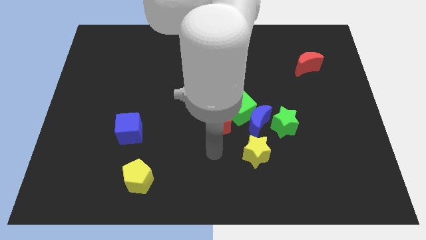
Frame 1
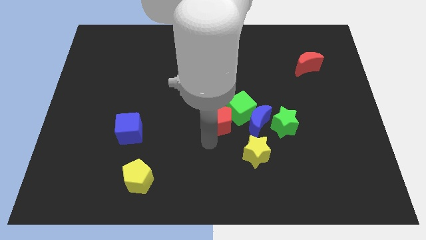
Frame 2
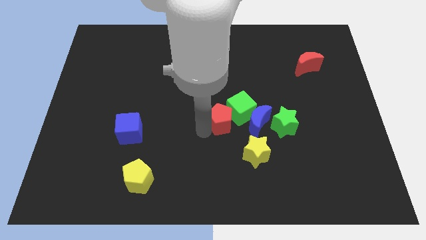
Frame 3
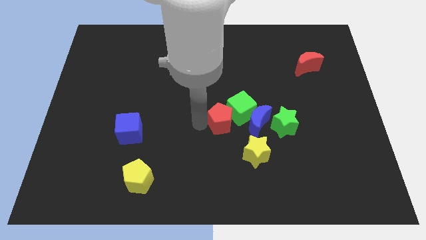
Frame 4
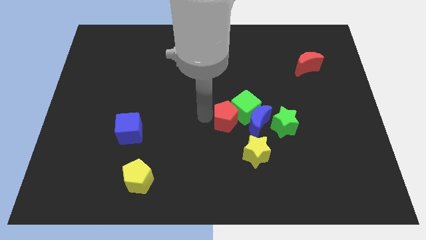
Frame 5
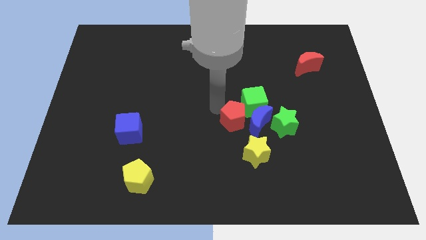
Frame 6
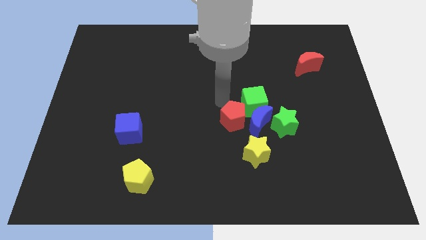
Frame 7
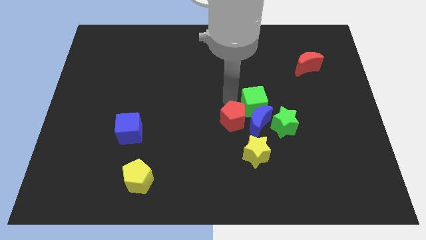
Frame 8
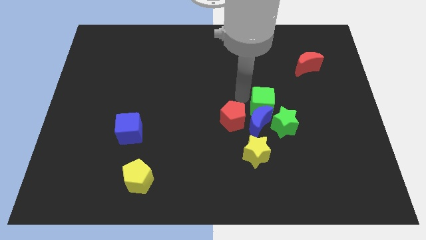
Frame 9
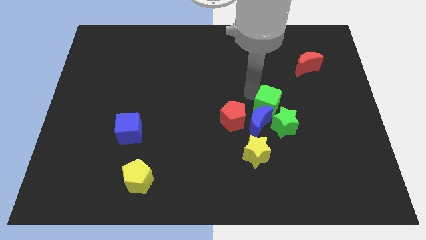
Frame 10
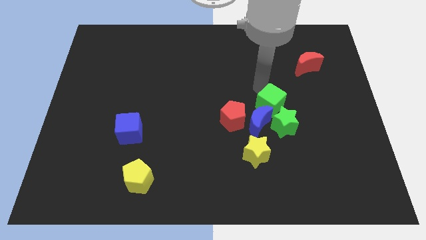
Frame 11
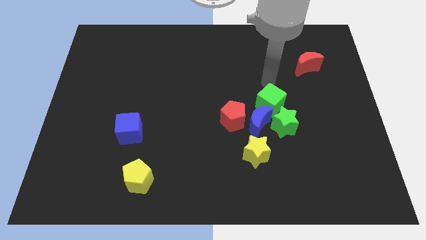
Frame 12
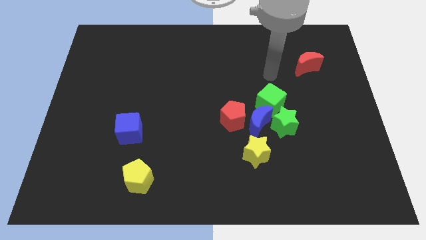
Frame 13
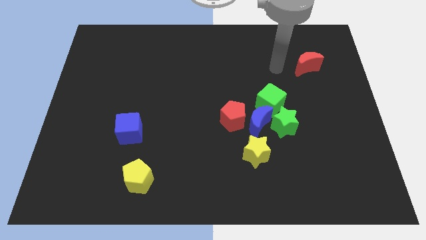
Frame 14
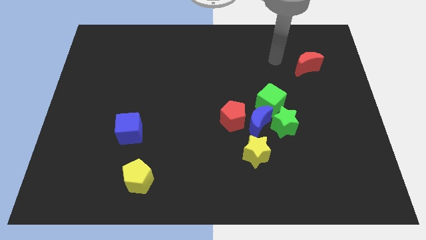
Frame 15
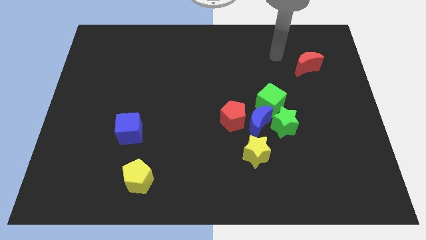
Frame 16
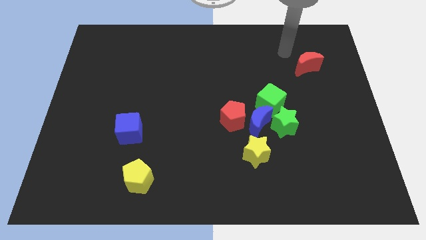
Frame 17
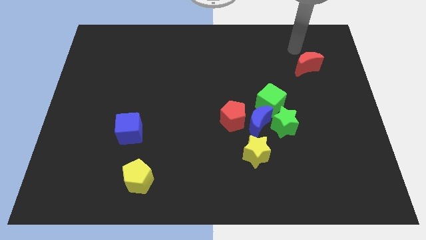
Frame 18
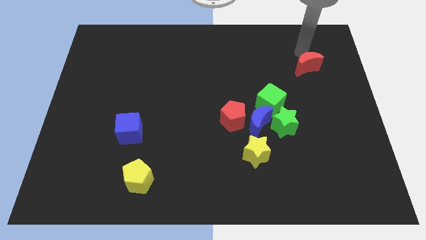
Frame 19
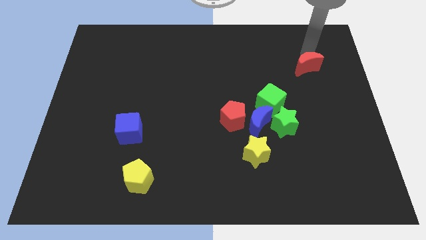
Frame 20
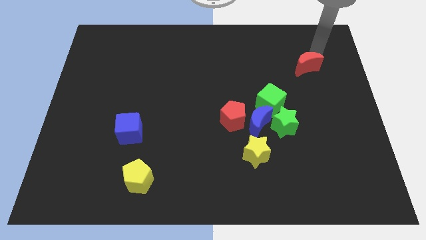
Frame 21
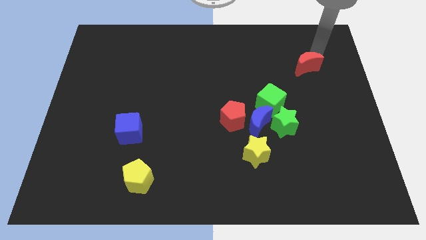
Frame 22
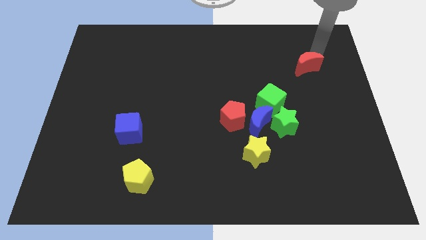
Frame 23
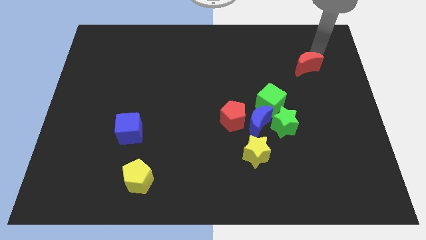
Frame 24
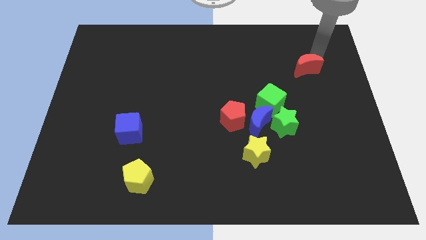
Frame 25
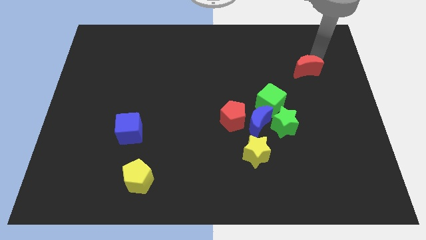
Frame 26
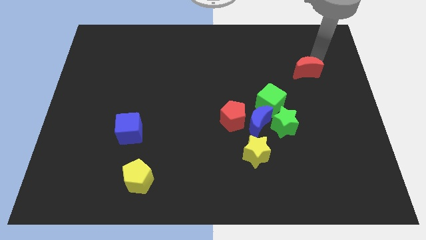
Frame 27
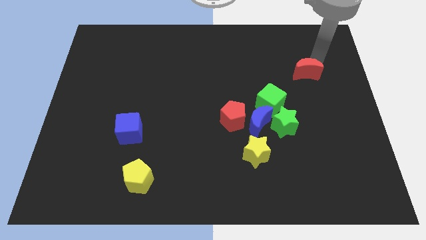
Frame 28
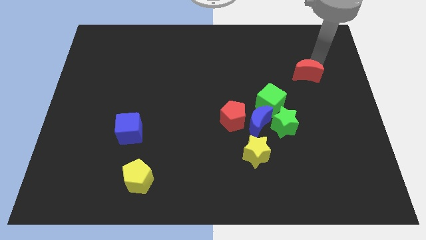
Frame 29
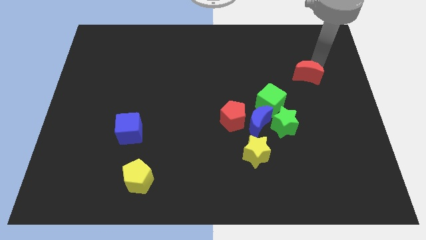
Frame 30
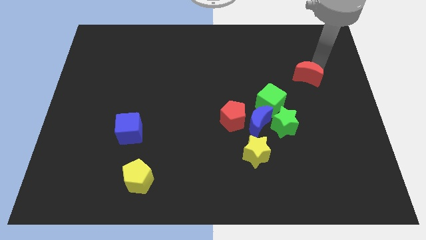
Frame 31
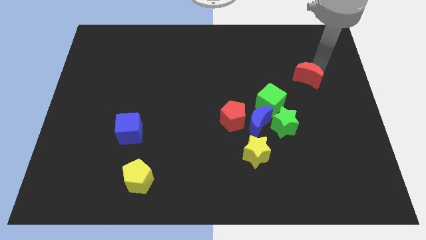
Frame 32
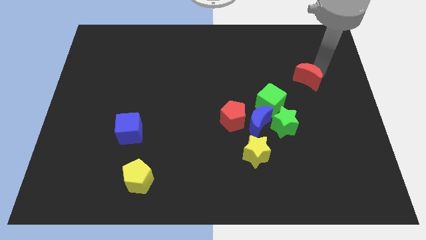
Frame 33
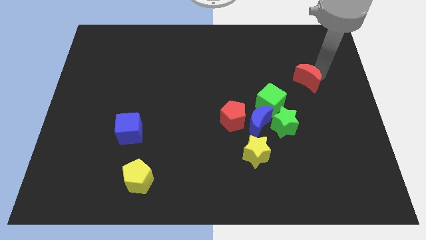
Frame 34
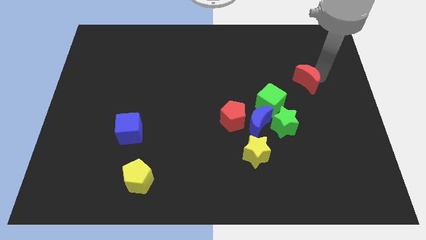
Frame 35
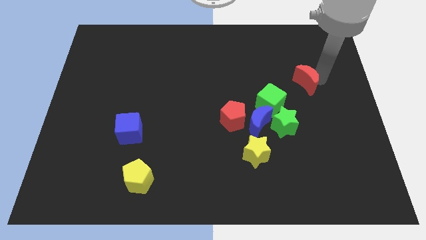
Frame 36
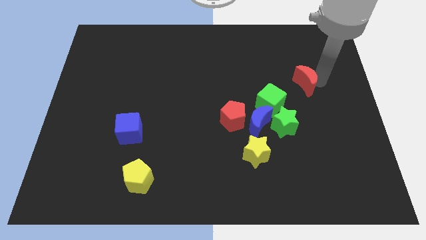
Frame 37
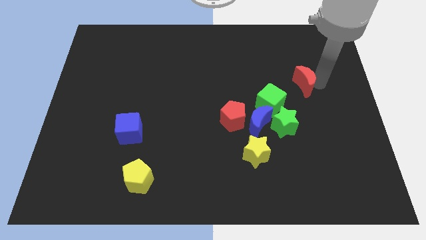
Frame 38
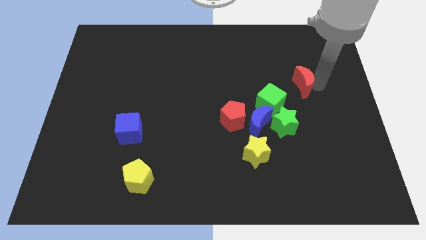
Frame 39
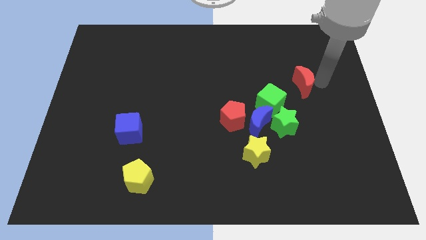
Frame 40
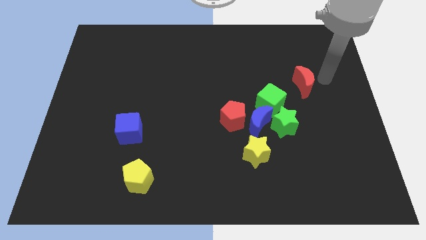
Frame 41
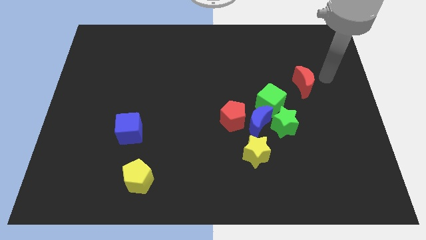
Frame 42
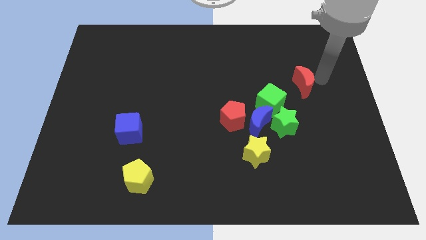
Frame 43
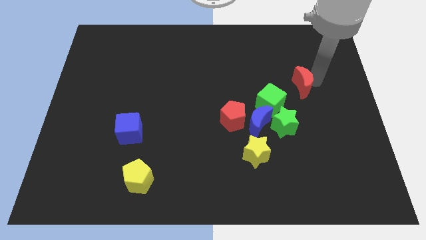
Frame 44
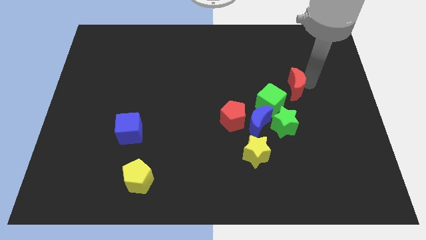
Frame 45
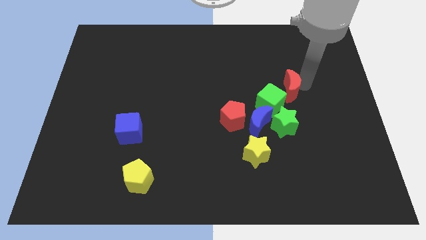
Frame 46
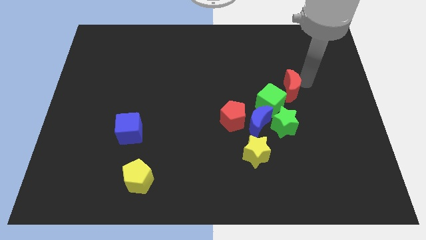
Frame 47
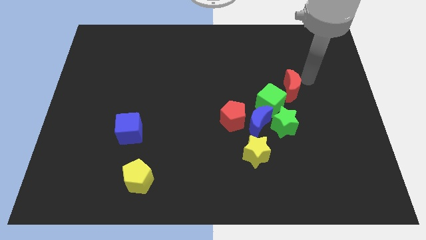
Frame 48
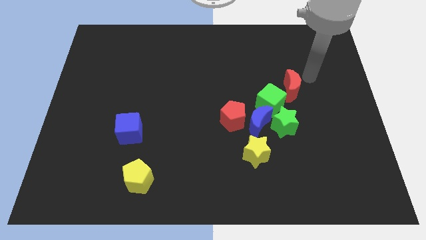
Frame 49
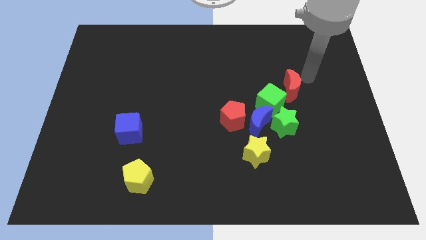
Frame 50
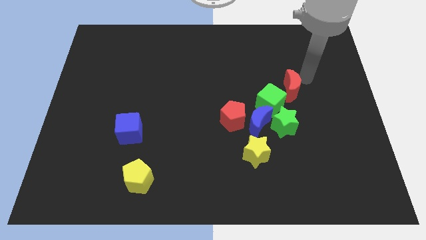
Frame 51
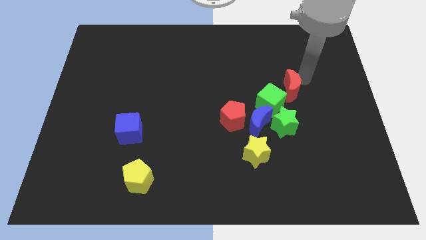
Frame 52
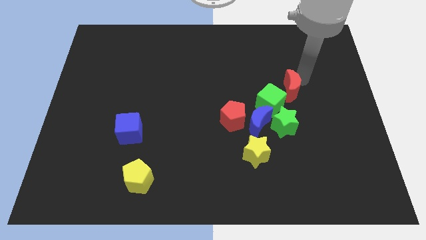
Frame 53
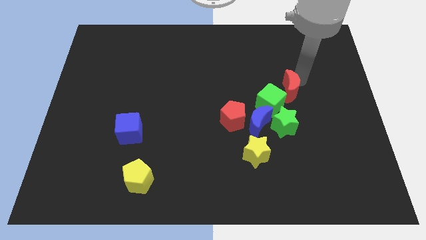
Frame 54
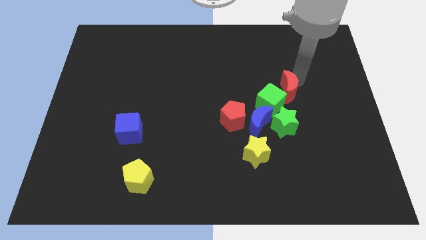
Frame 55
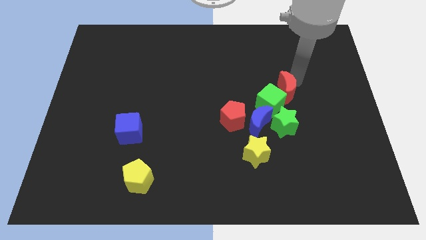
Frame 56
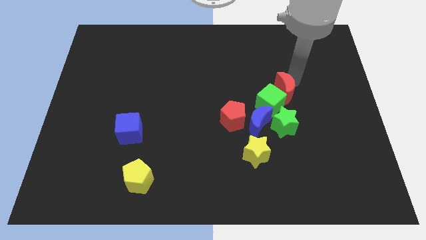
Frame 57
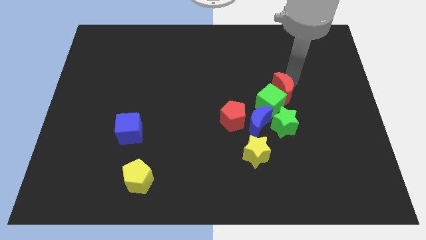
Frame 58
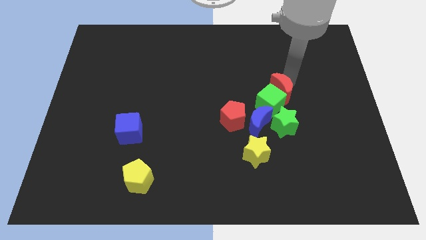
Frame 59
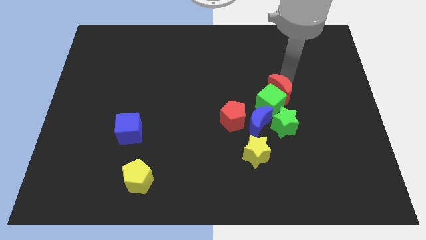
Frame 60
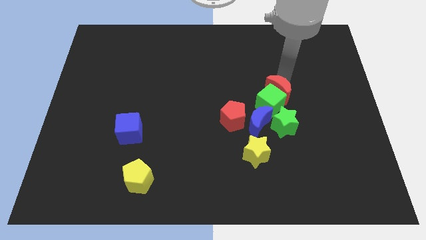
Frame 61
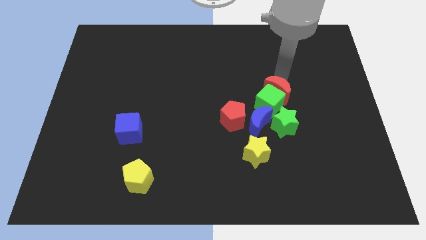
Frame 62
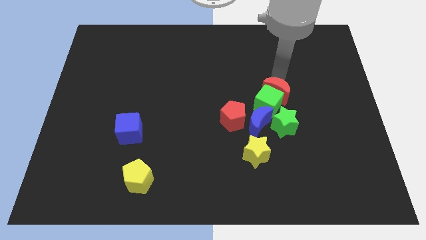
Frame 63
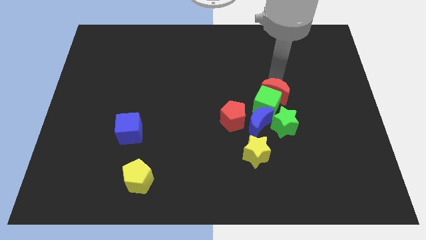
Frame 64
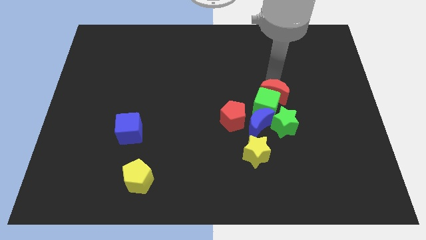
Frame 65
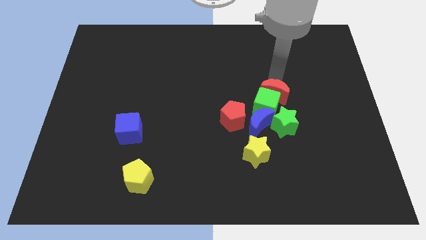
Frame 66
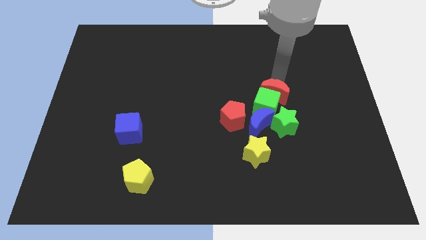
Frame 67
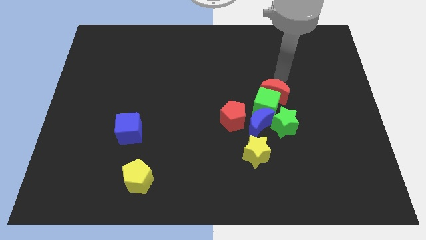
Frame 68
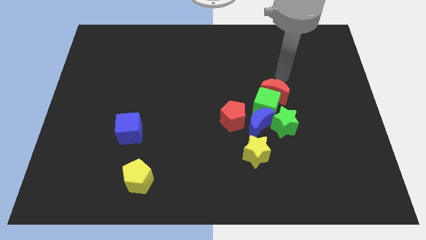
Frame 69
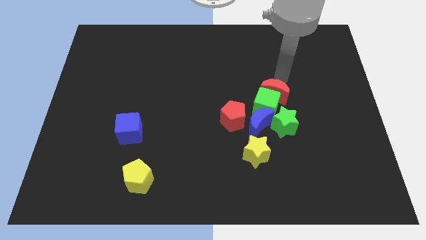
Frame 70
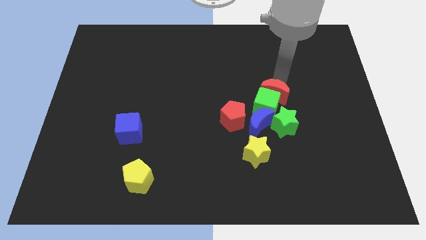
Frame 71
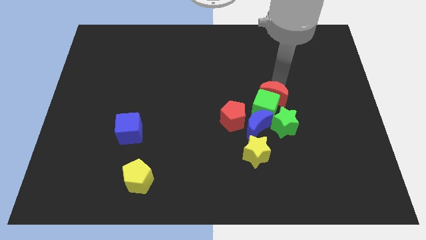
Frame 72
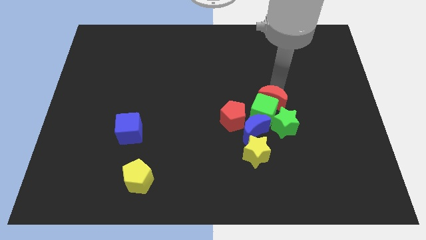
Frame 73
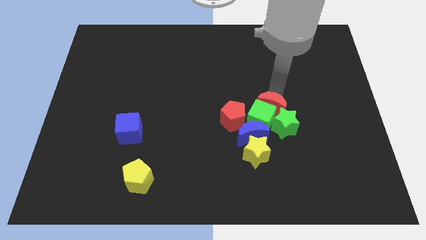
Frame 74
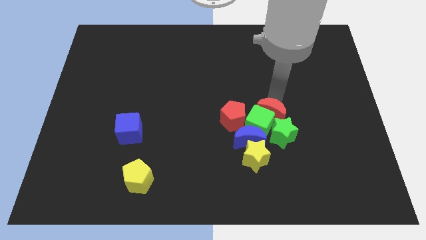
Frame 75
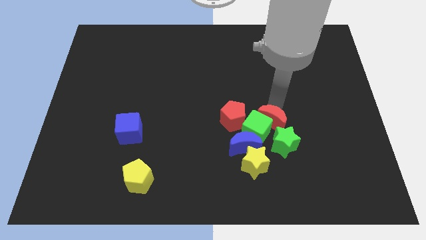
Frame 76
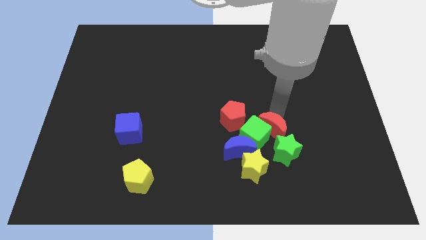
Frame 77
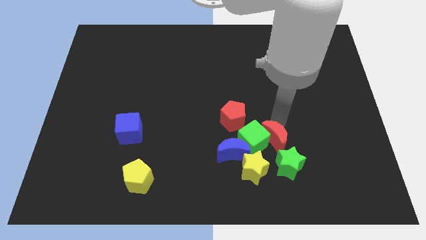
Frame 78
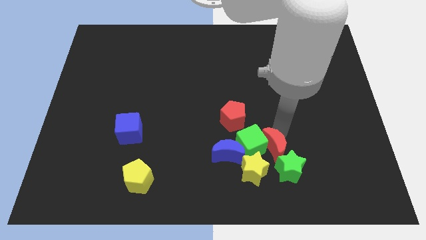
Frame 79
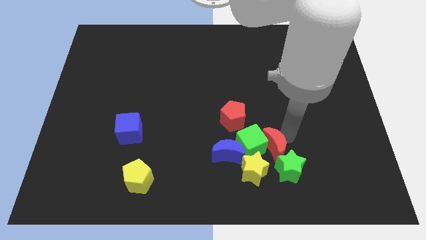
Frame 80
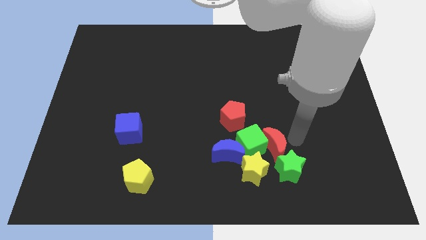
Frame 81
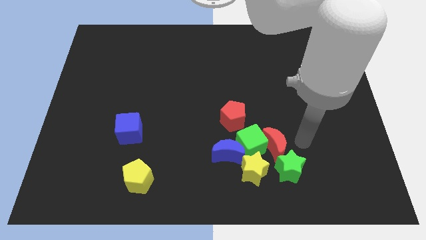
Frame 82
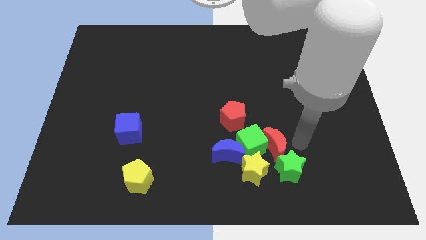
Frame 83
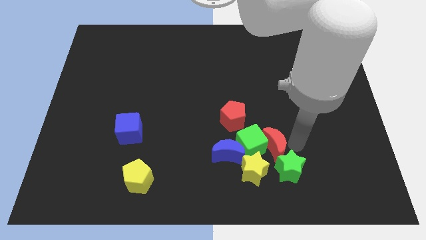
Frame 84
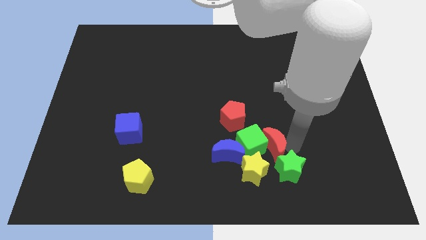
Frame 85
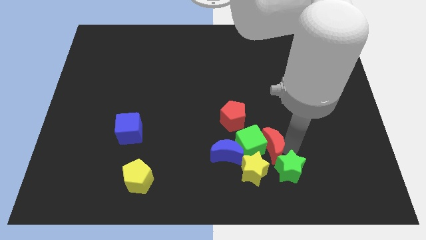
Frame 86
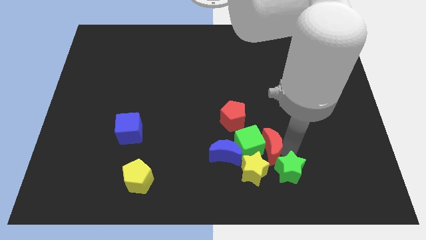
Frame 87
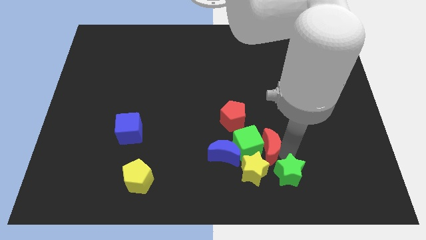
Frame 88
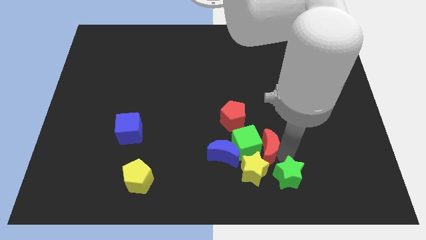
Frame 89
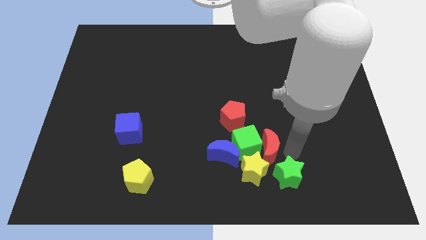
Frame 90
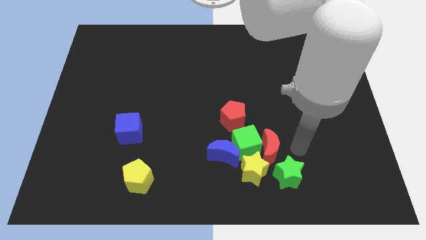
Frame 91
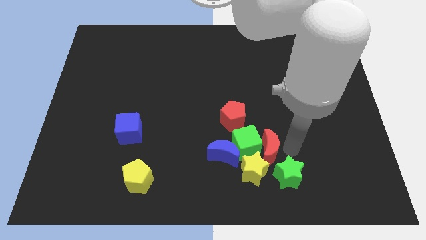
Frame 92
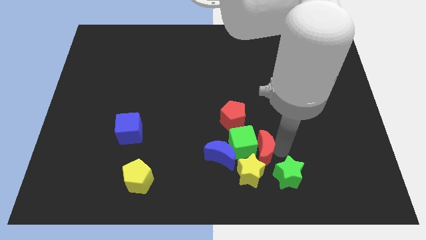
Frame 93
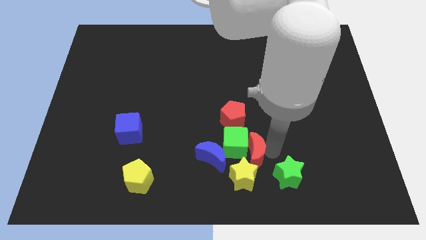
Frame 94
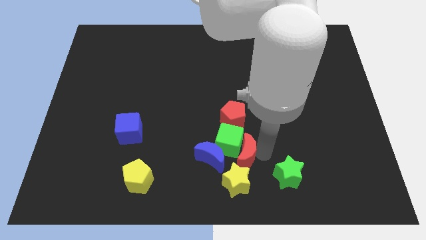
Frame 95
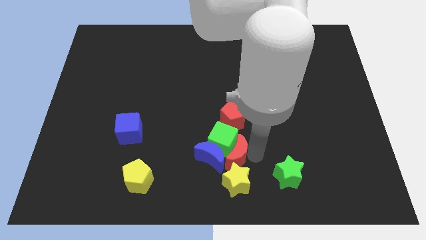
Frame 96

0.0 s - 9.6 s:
push the red moon to the blue moon
